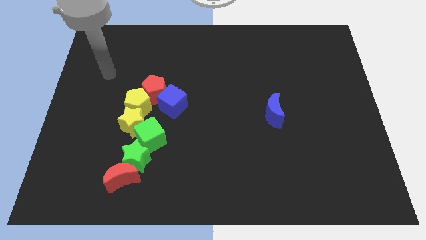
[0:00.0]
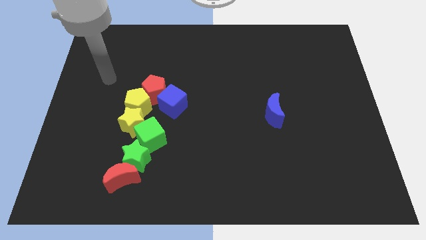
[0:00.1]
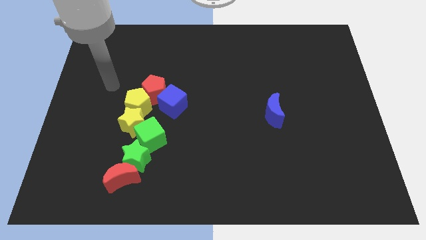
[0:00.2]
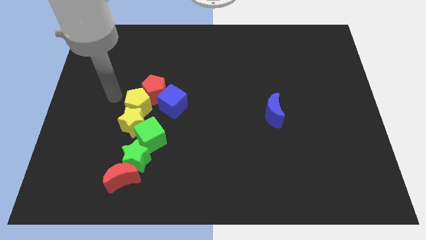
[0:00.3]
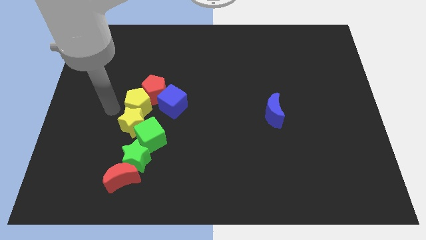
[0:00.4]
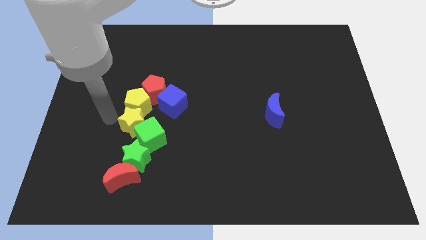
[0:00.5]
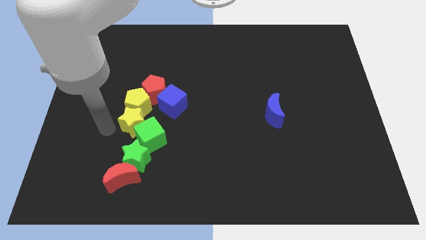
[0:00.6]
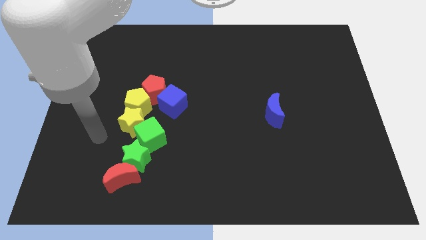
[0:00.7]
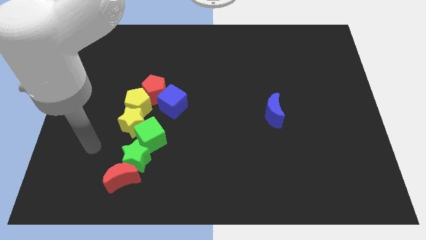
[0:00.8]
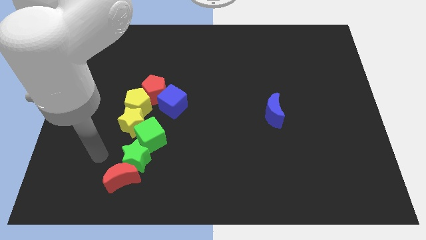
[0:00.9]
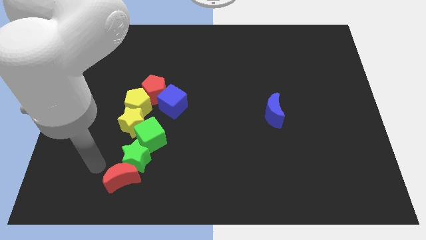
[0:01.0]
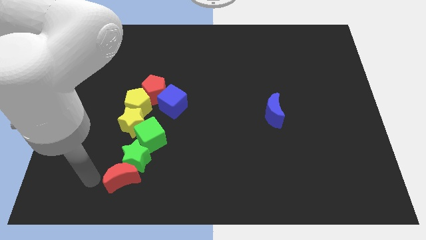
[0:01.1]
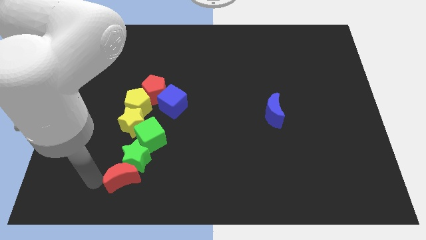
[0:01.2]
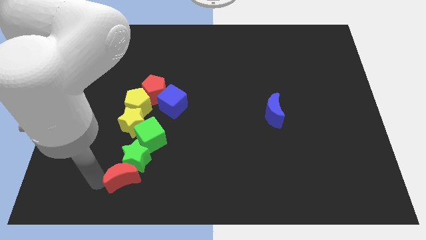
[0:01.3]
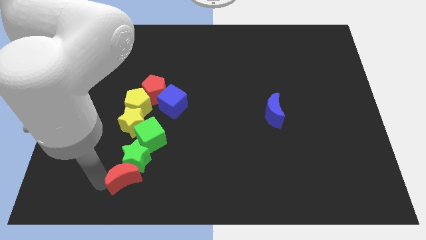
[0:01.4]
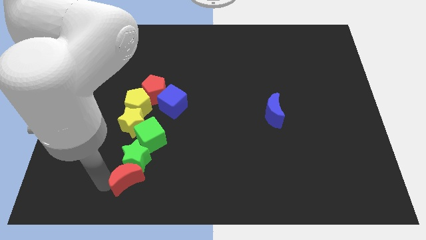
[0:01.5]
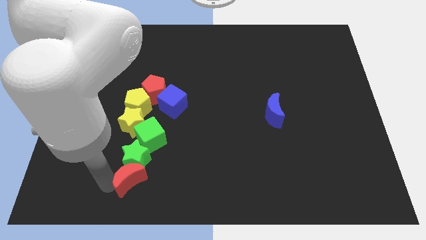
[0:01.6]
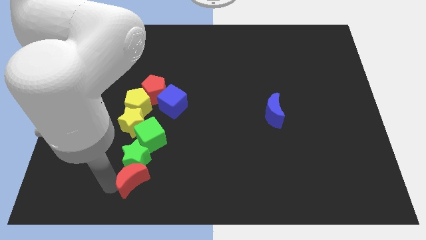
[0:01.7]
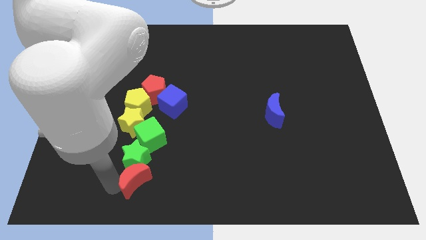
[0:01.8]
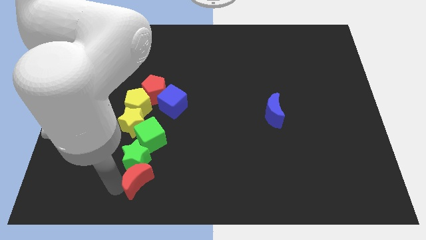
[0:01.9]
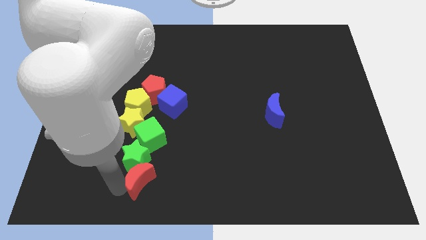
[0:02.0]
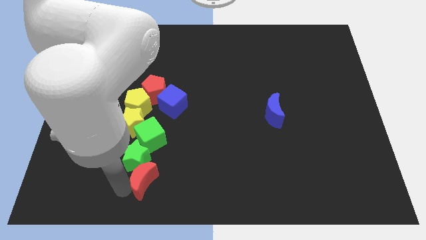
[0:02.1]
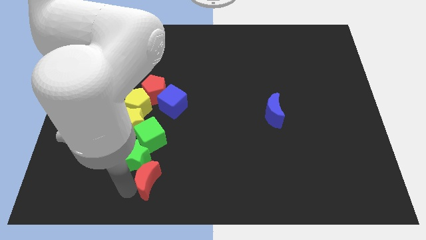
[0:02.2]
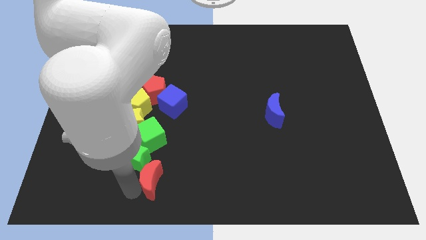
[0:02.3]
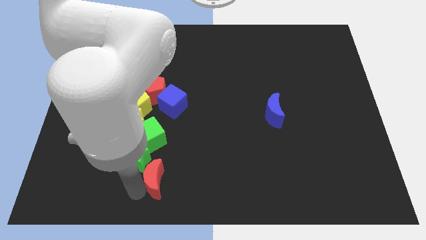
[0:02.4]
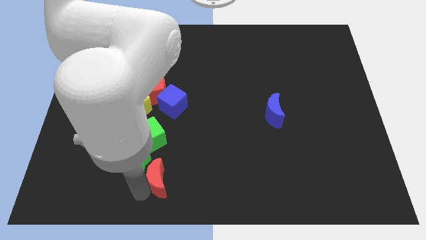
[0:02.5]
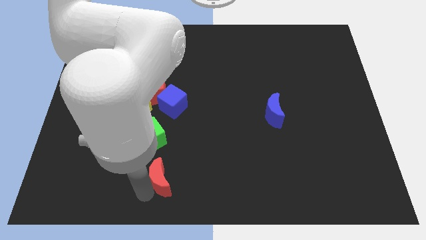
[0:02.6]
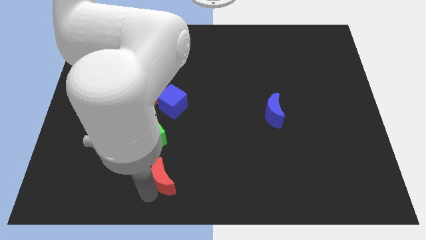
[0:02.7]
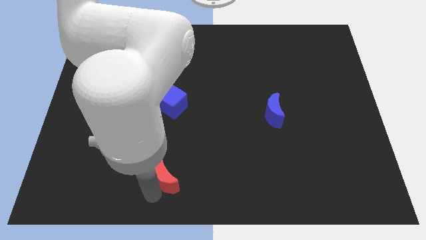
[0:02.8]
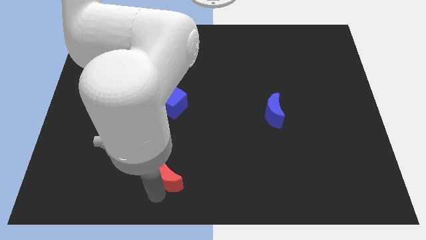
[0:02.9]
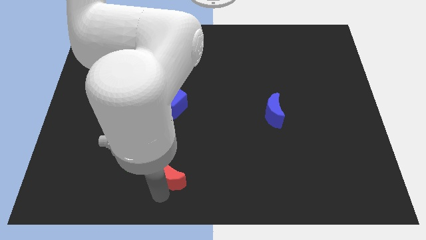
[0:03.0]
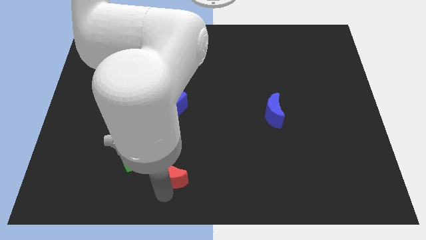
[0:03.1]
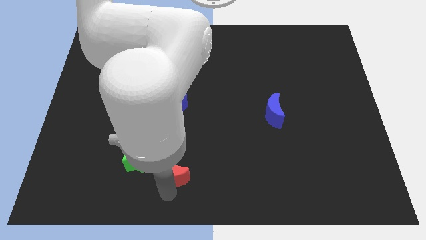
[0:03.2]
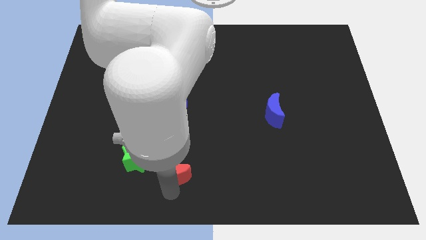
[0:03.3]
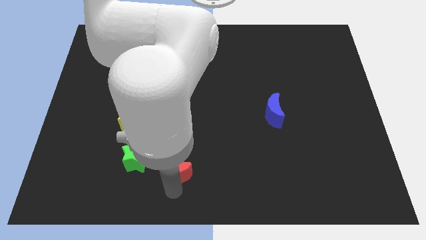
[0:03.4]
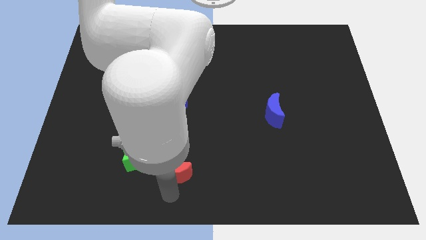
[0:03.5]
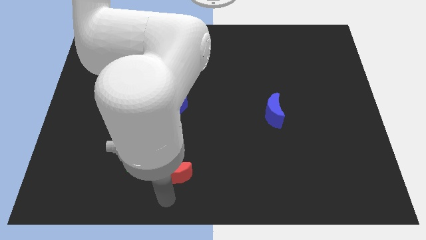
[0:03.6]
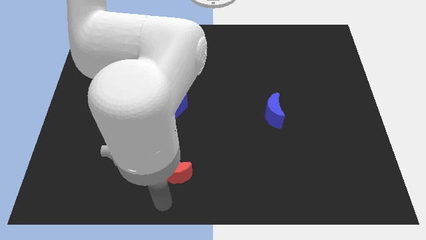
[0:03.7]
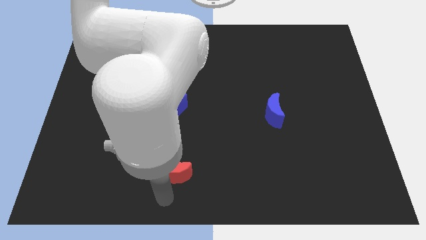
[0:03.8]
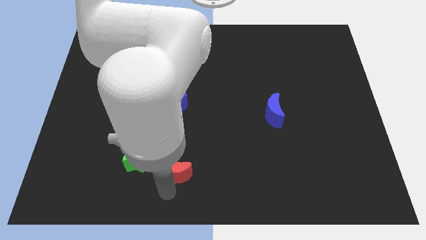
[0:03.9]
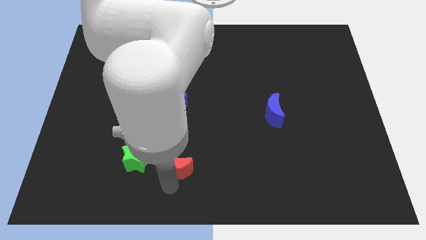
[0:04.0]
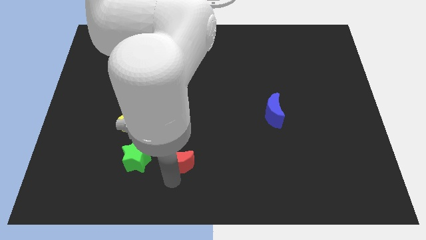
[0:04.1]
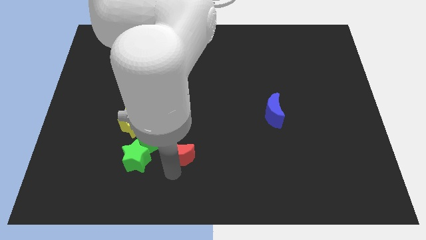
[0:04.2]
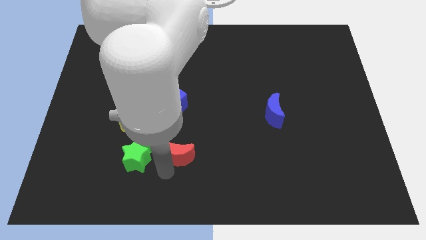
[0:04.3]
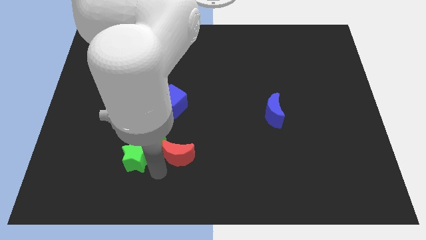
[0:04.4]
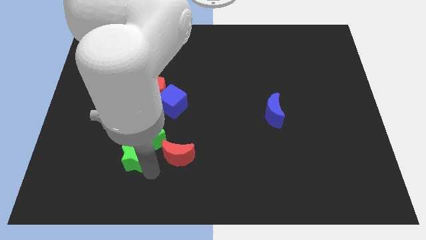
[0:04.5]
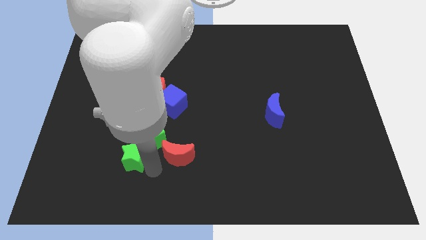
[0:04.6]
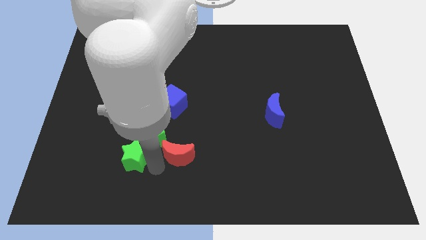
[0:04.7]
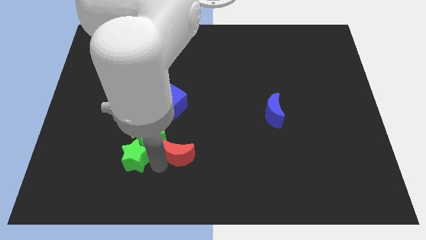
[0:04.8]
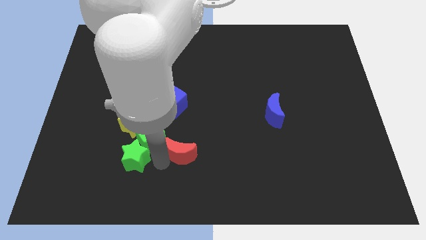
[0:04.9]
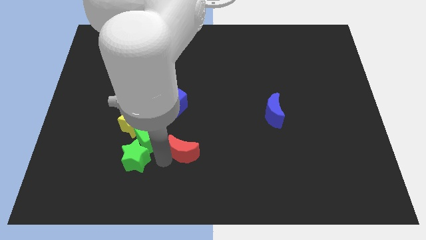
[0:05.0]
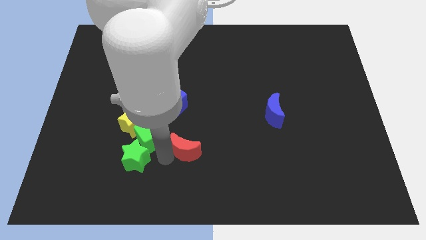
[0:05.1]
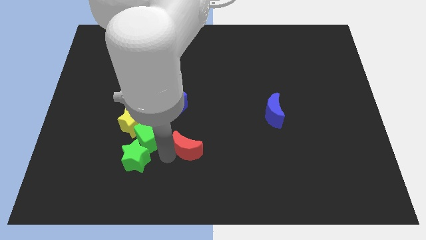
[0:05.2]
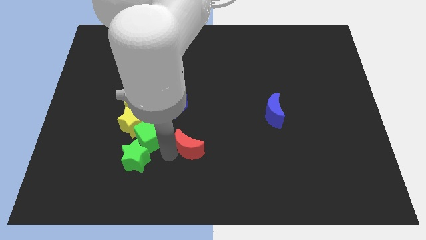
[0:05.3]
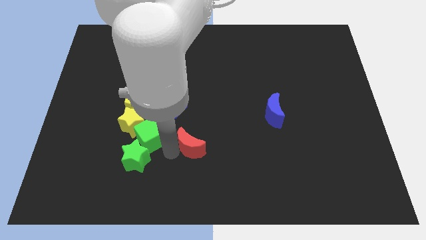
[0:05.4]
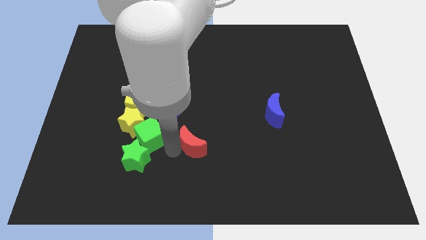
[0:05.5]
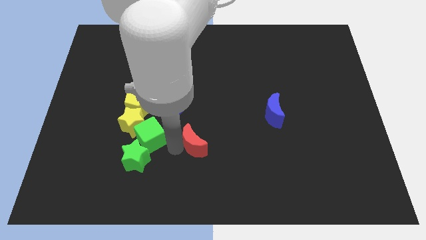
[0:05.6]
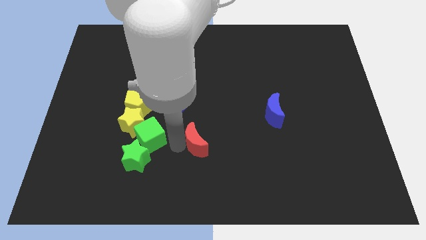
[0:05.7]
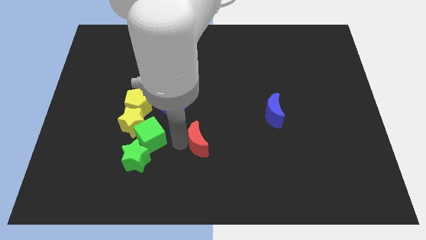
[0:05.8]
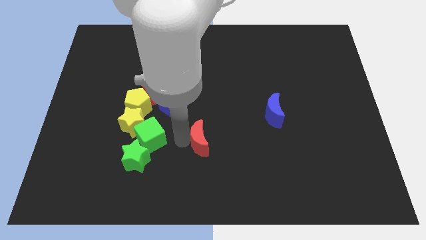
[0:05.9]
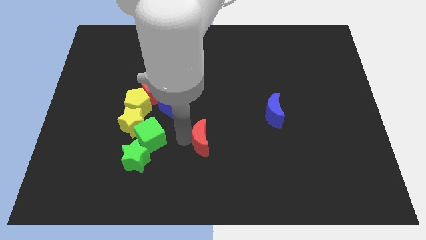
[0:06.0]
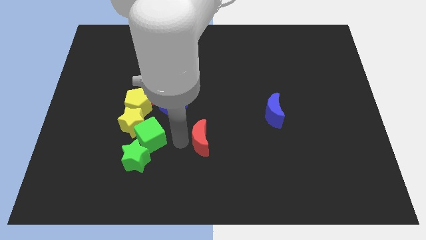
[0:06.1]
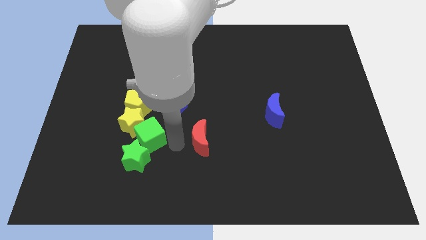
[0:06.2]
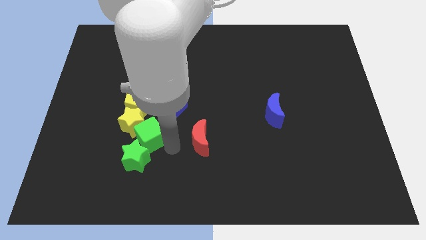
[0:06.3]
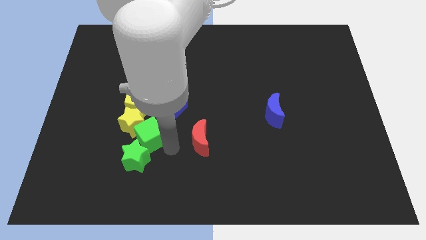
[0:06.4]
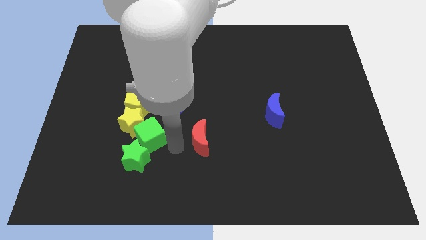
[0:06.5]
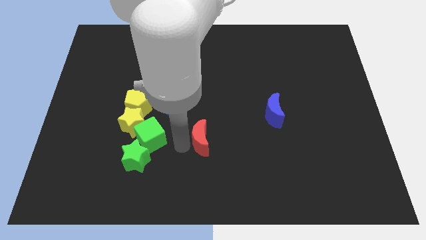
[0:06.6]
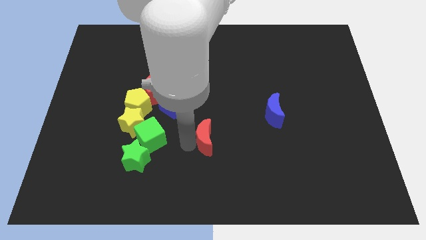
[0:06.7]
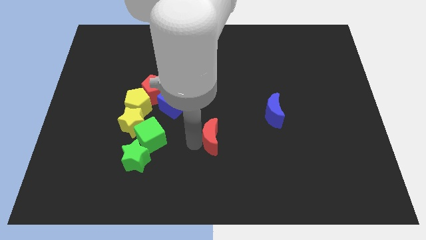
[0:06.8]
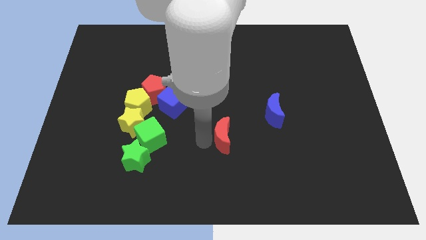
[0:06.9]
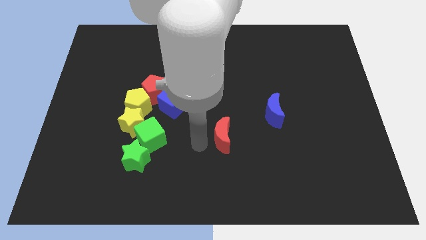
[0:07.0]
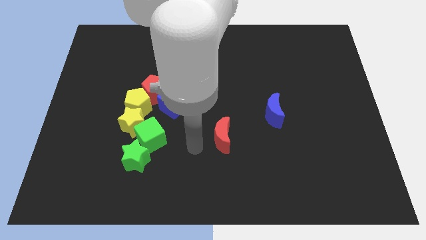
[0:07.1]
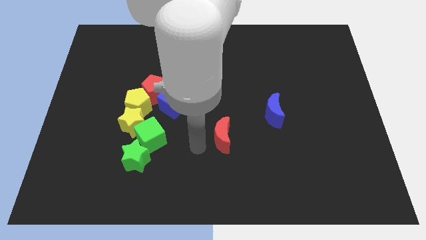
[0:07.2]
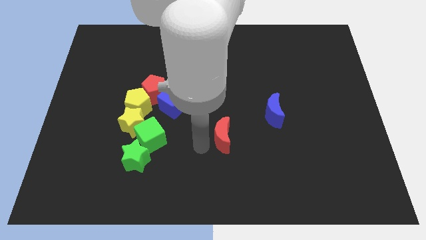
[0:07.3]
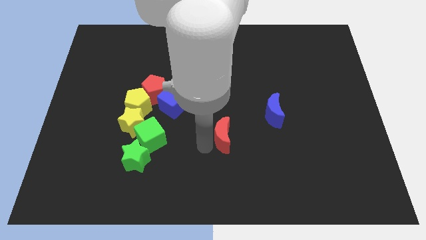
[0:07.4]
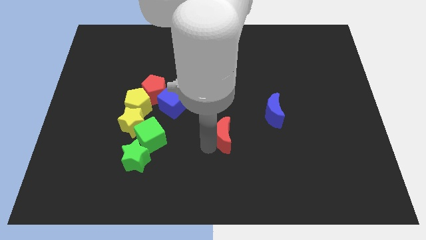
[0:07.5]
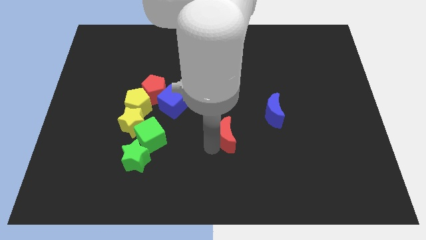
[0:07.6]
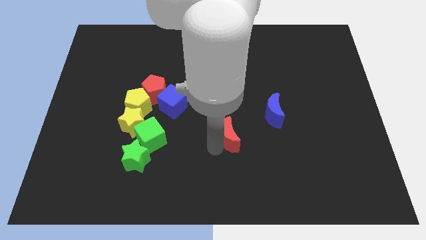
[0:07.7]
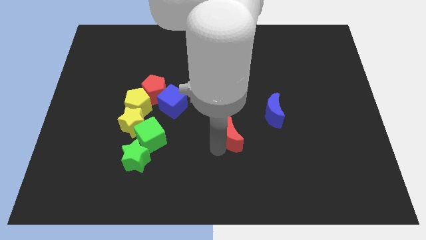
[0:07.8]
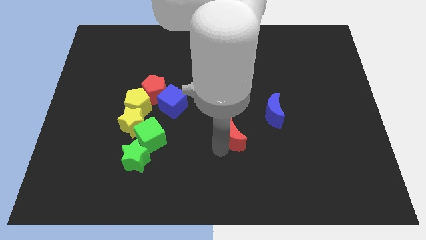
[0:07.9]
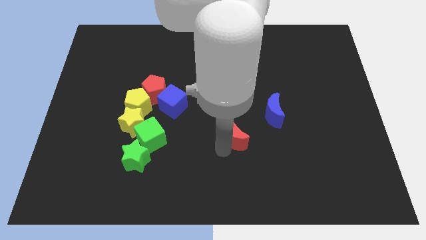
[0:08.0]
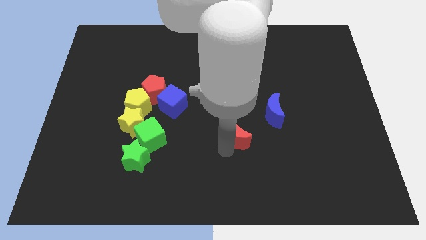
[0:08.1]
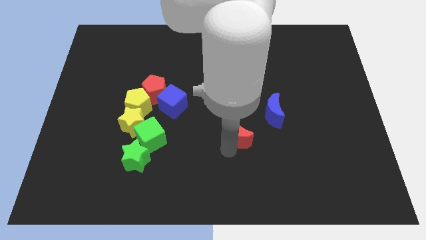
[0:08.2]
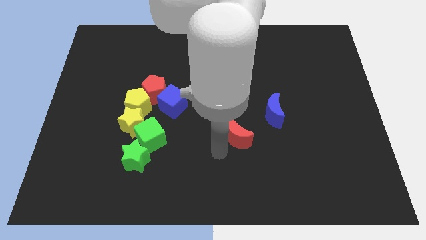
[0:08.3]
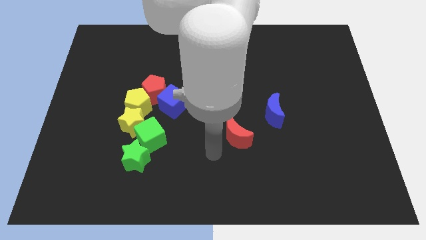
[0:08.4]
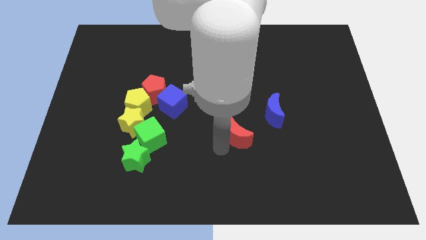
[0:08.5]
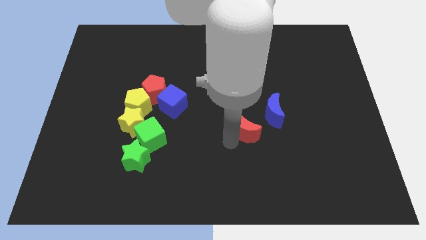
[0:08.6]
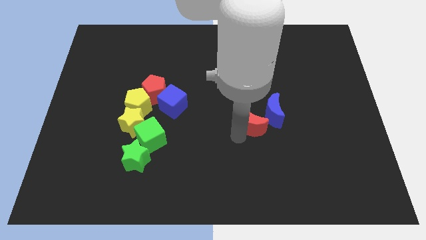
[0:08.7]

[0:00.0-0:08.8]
move the red moon next to the blue moon
